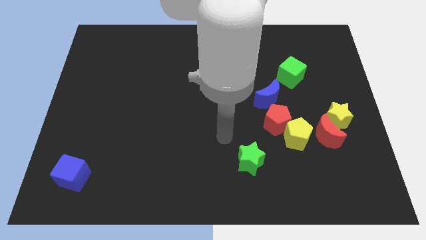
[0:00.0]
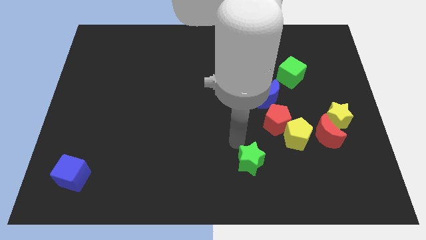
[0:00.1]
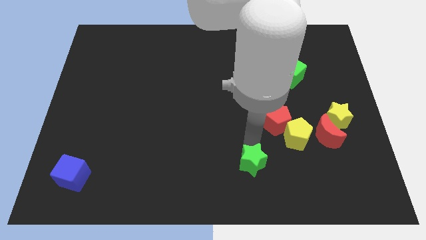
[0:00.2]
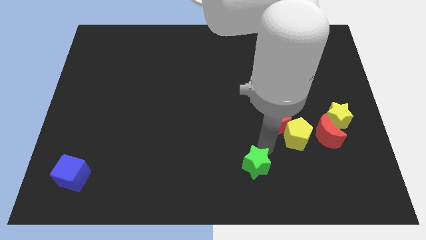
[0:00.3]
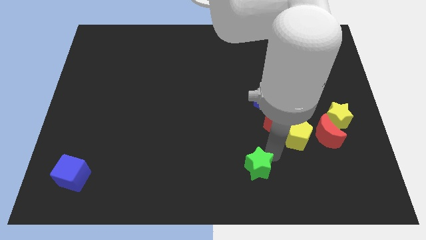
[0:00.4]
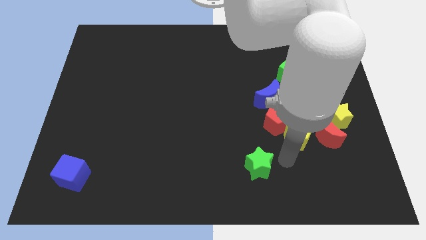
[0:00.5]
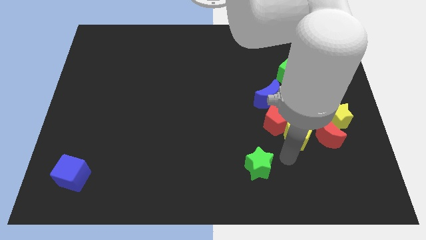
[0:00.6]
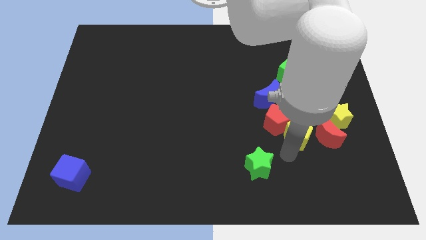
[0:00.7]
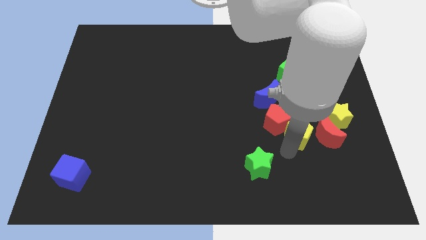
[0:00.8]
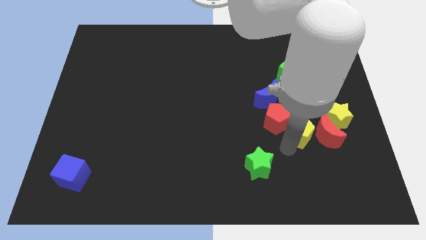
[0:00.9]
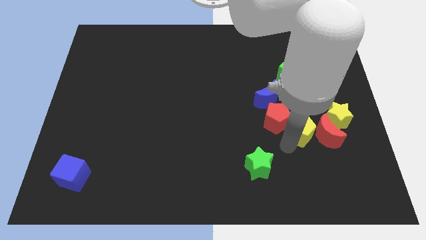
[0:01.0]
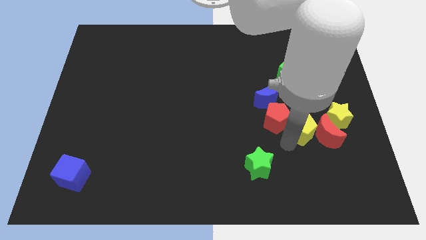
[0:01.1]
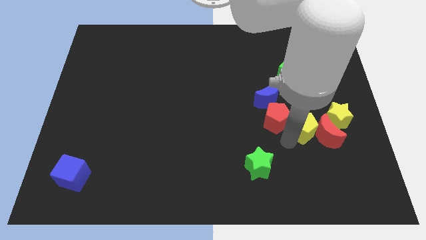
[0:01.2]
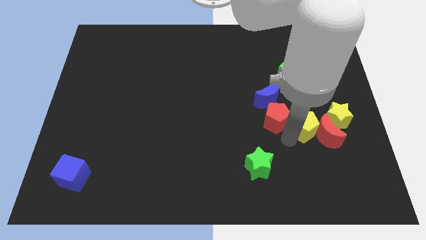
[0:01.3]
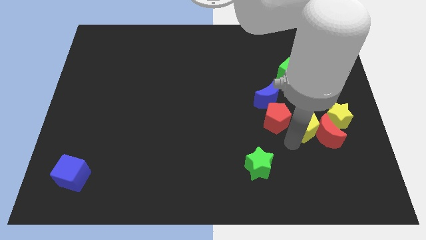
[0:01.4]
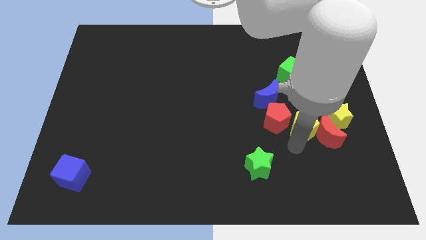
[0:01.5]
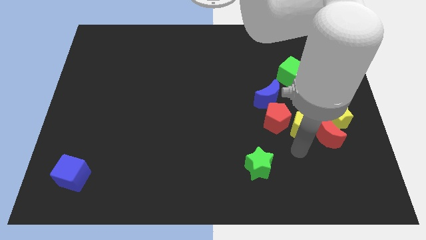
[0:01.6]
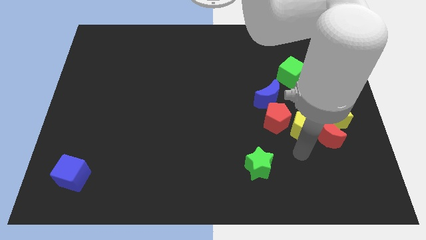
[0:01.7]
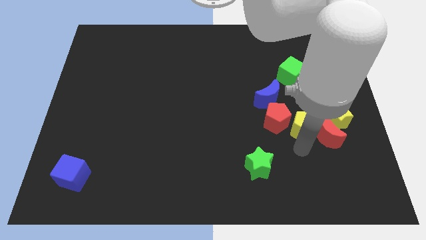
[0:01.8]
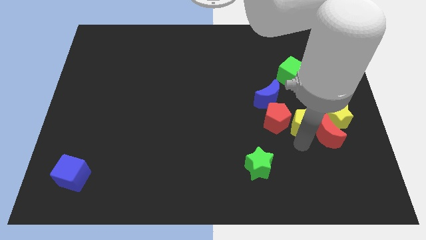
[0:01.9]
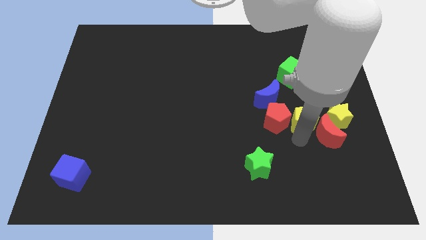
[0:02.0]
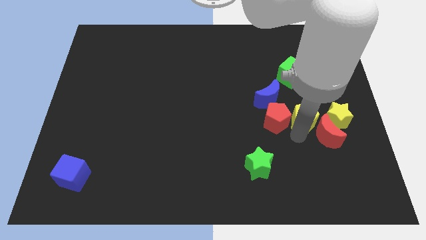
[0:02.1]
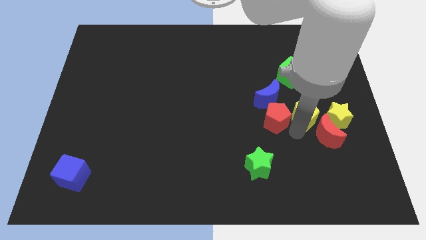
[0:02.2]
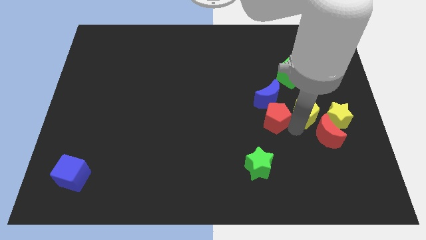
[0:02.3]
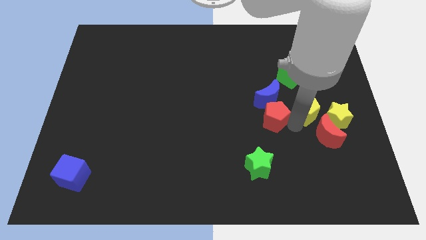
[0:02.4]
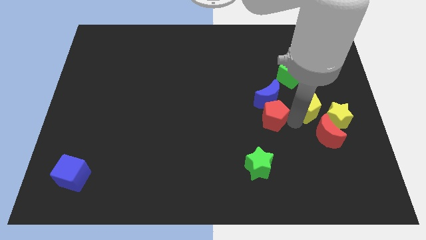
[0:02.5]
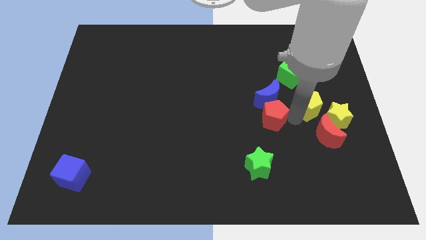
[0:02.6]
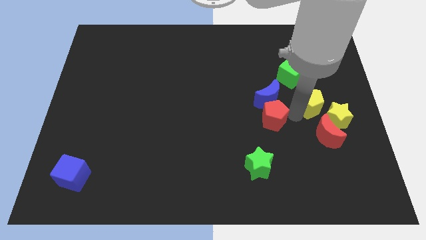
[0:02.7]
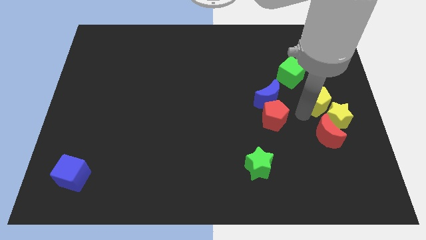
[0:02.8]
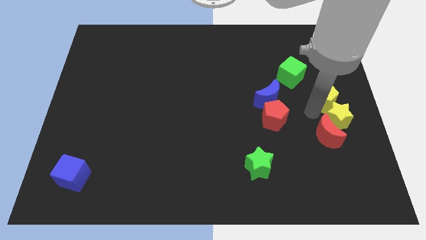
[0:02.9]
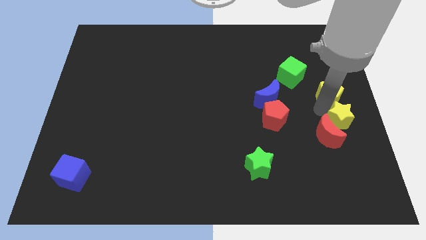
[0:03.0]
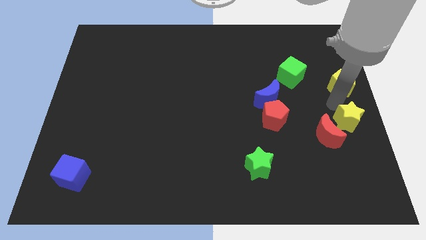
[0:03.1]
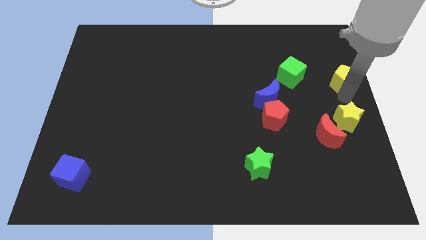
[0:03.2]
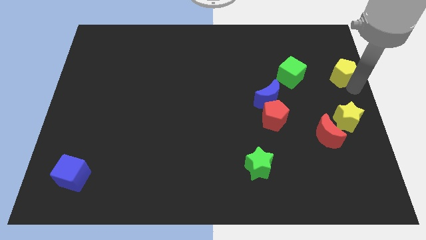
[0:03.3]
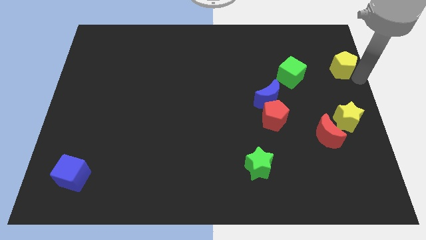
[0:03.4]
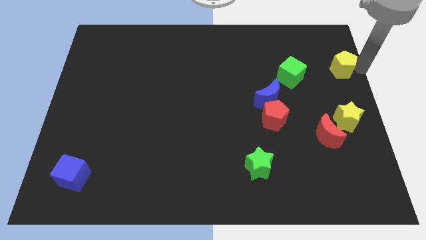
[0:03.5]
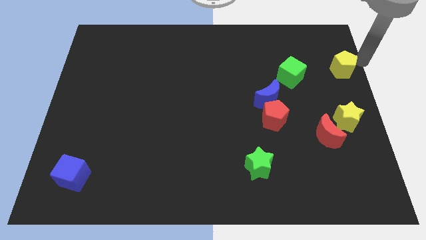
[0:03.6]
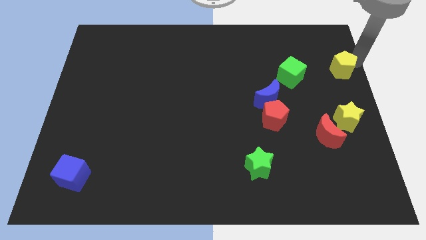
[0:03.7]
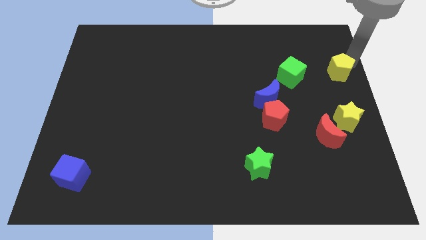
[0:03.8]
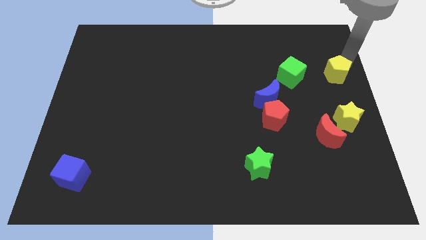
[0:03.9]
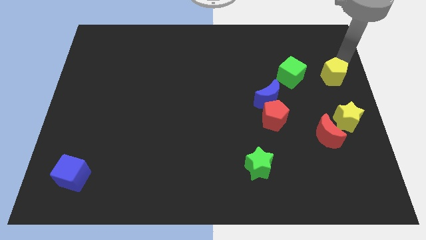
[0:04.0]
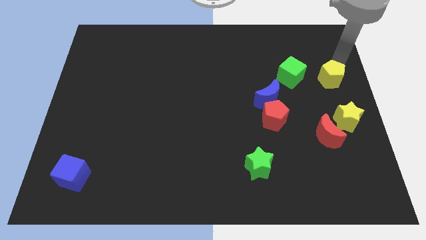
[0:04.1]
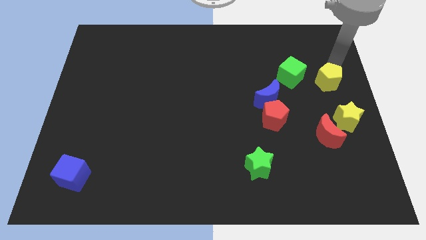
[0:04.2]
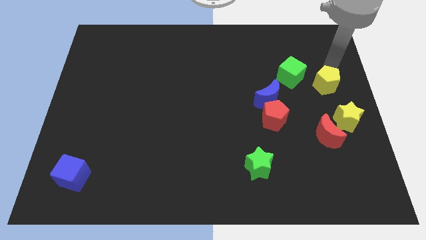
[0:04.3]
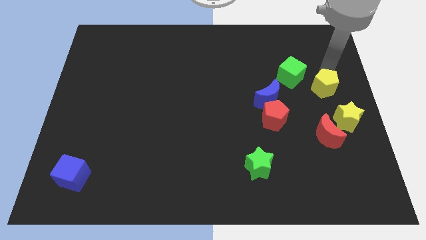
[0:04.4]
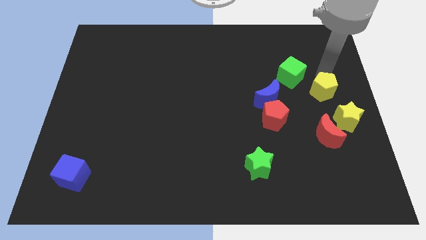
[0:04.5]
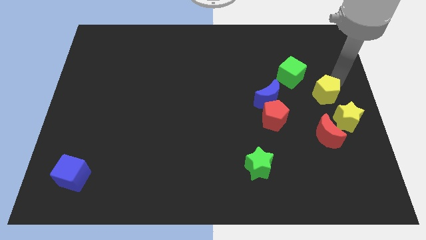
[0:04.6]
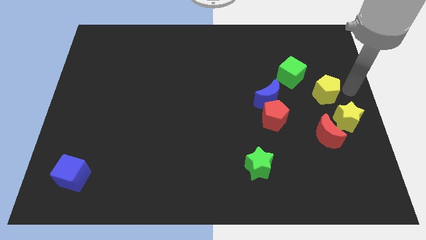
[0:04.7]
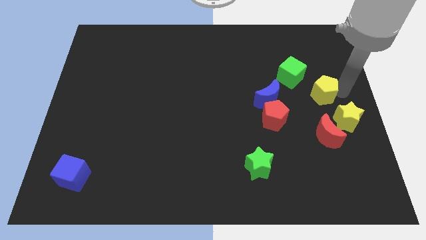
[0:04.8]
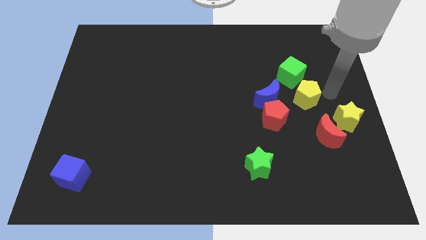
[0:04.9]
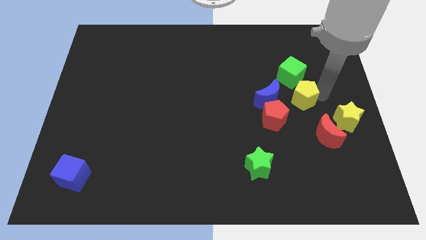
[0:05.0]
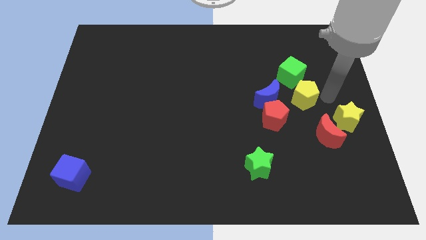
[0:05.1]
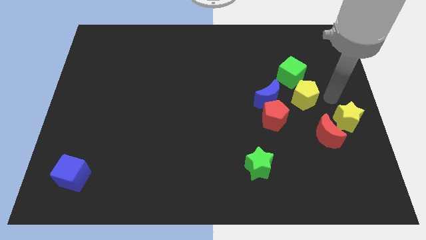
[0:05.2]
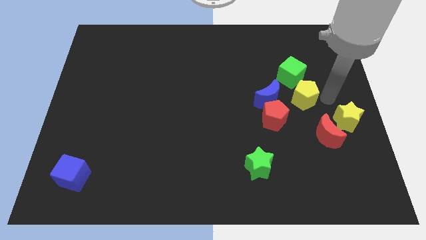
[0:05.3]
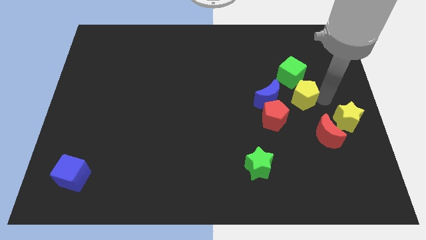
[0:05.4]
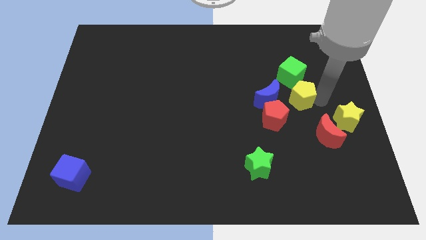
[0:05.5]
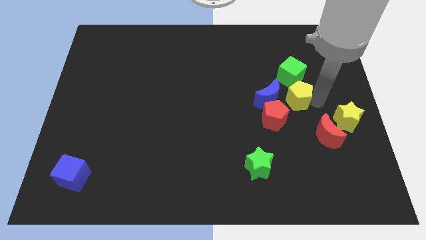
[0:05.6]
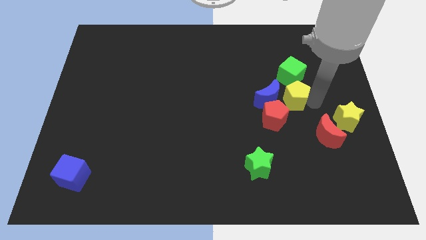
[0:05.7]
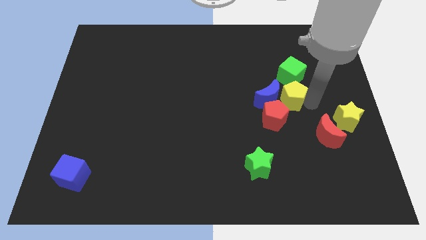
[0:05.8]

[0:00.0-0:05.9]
push the yellow pentagon next to the blue moon

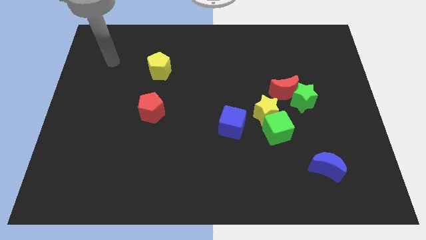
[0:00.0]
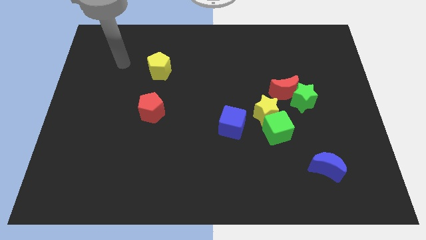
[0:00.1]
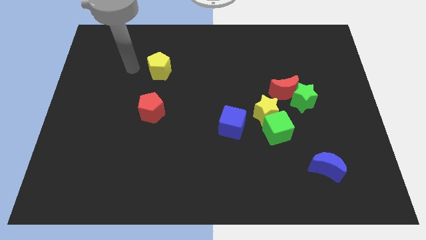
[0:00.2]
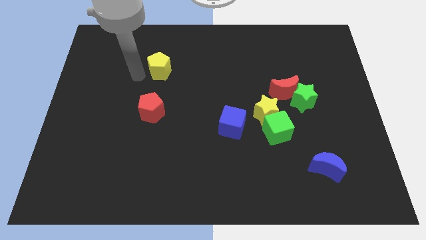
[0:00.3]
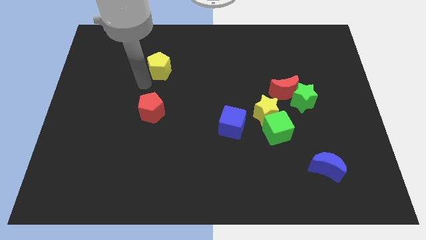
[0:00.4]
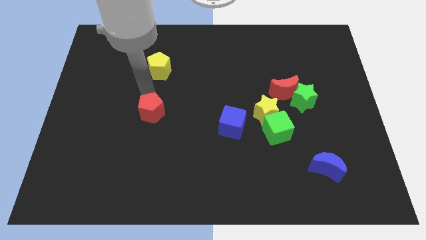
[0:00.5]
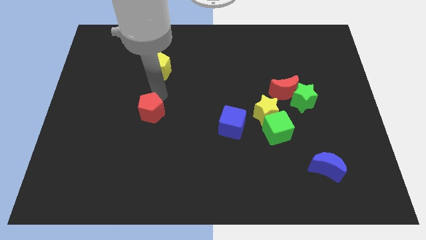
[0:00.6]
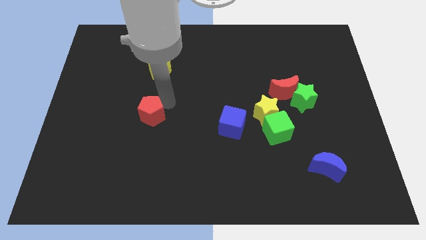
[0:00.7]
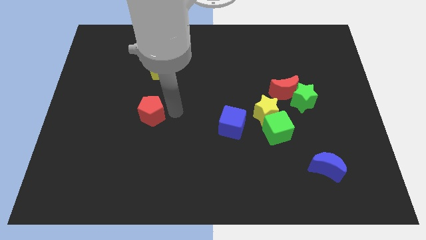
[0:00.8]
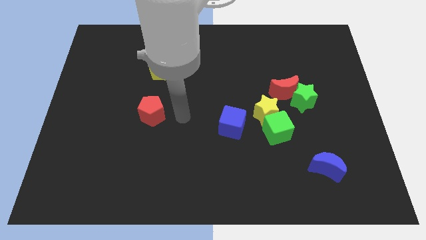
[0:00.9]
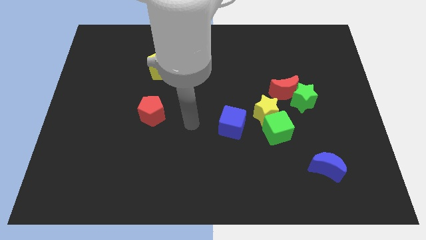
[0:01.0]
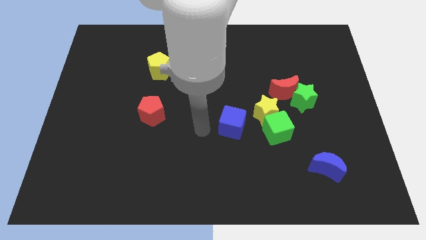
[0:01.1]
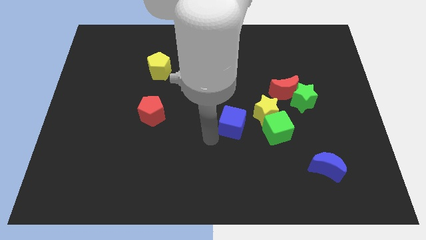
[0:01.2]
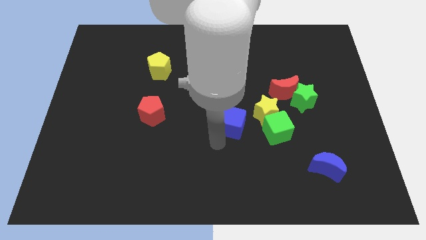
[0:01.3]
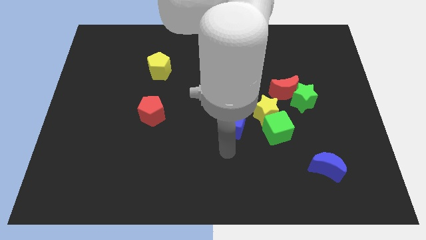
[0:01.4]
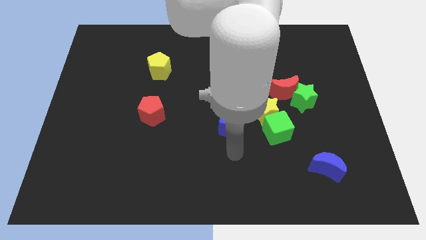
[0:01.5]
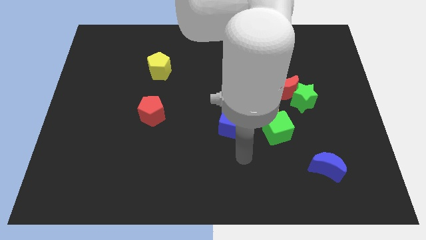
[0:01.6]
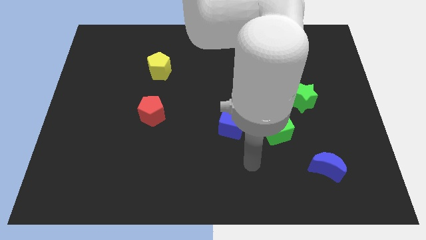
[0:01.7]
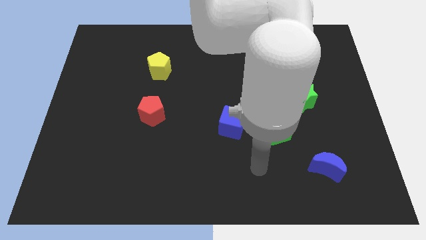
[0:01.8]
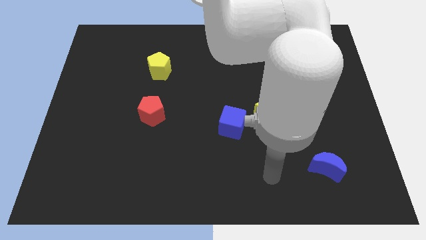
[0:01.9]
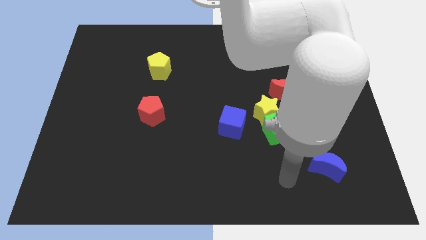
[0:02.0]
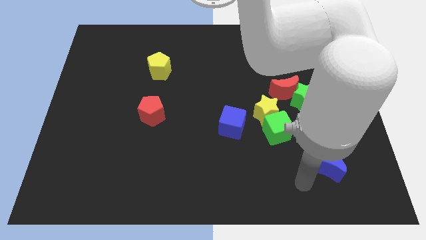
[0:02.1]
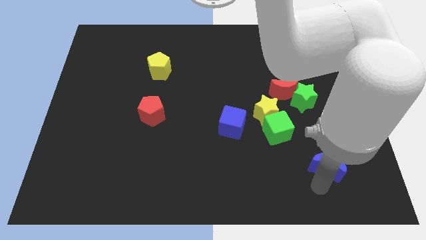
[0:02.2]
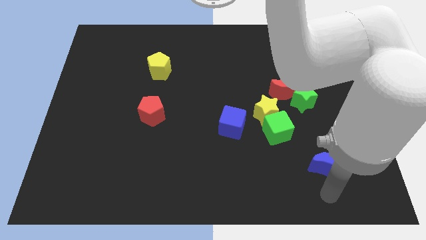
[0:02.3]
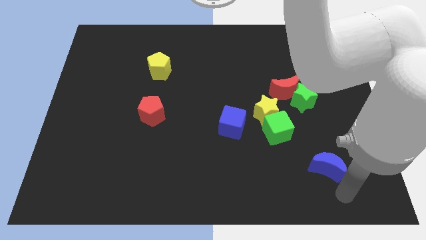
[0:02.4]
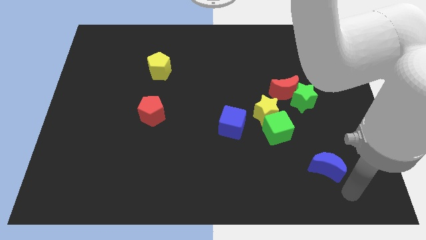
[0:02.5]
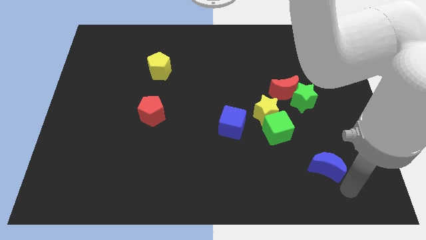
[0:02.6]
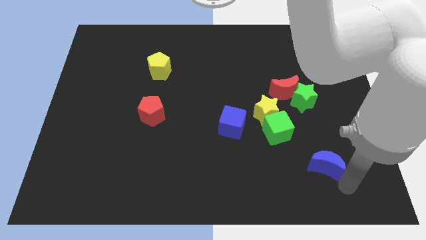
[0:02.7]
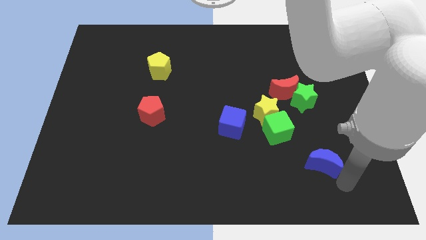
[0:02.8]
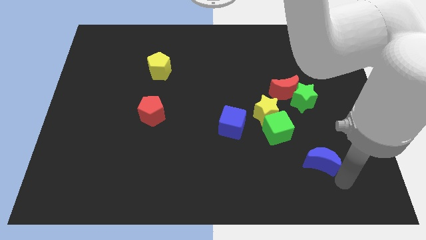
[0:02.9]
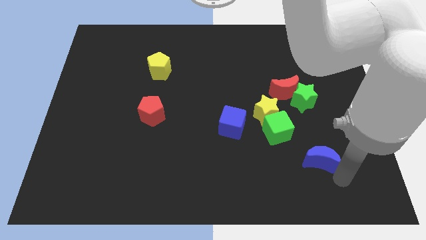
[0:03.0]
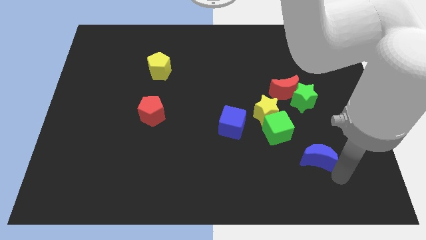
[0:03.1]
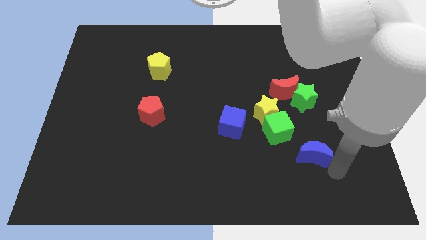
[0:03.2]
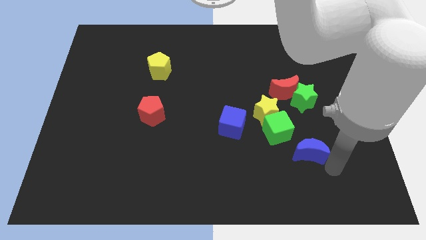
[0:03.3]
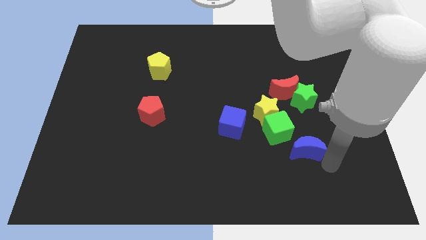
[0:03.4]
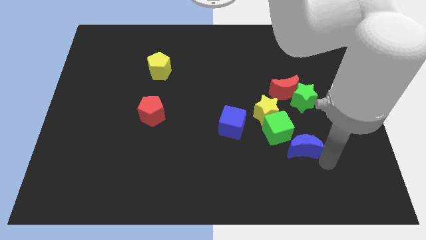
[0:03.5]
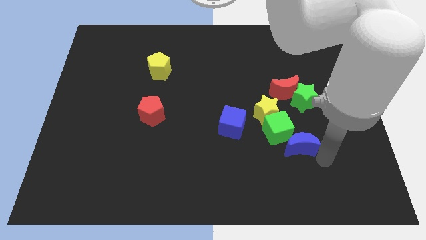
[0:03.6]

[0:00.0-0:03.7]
slide the blue moon towards the green cube
